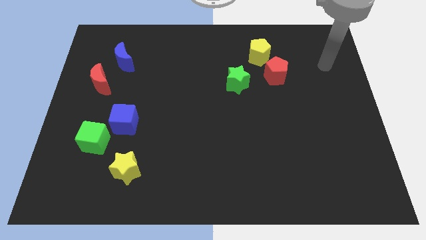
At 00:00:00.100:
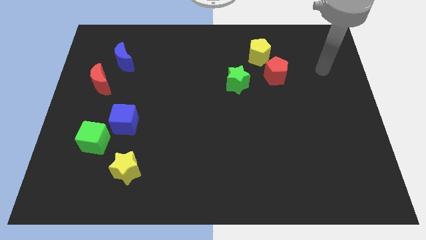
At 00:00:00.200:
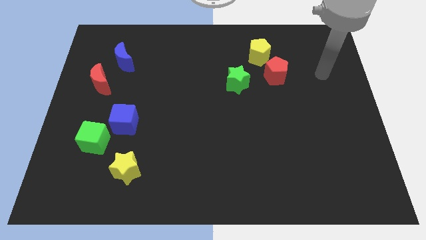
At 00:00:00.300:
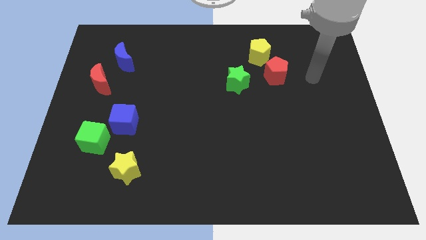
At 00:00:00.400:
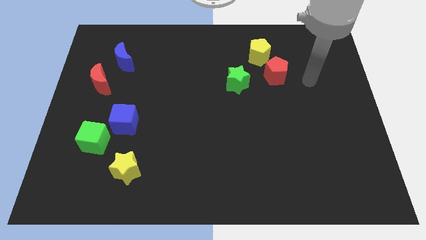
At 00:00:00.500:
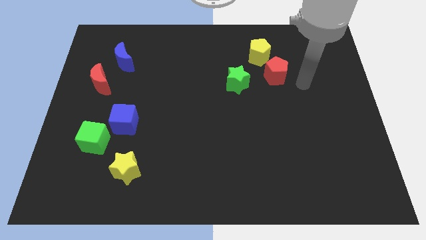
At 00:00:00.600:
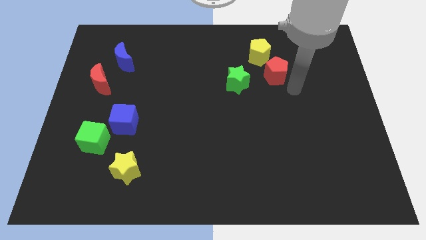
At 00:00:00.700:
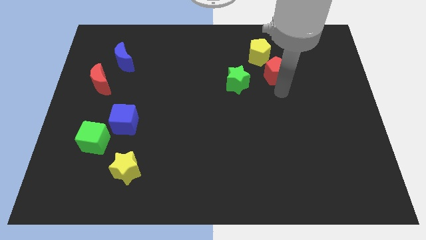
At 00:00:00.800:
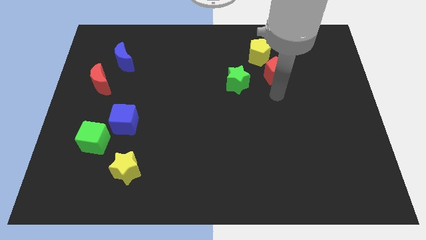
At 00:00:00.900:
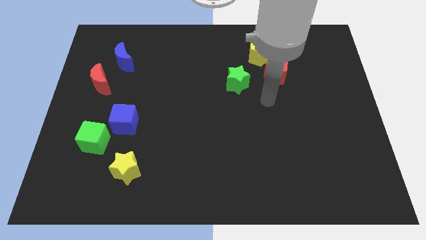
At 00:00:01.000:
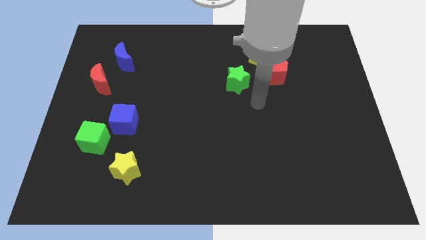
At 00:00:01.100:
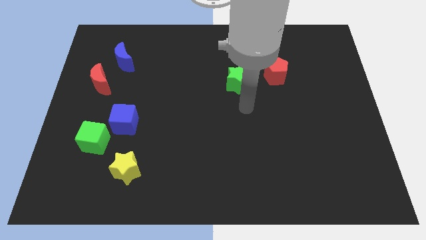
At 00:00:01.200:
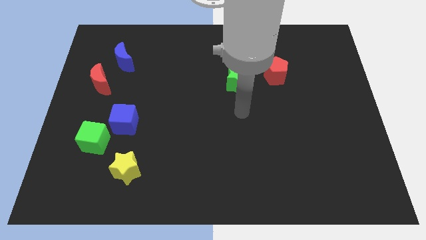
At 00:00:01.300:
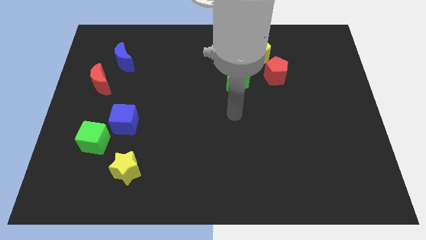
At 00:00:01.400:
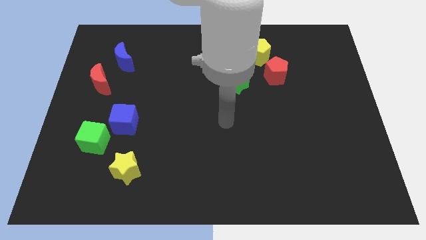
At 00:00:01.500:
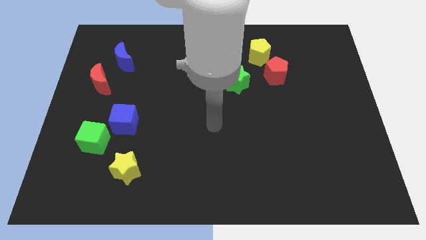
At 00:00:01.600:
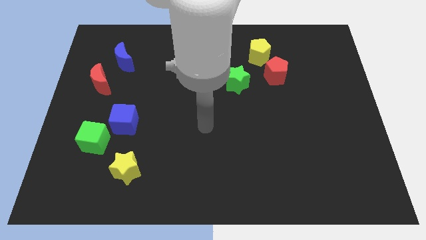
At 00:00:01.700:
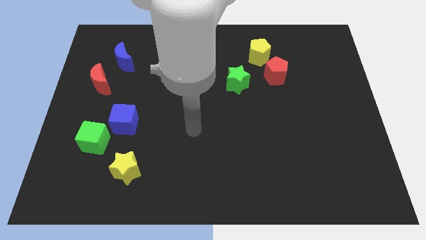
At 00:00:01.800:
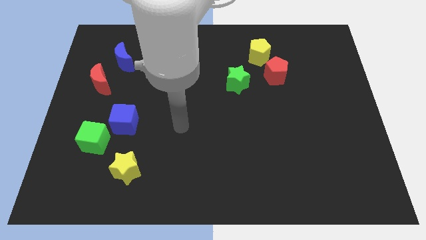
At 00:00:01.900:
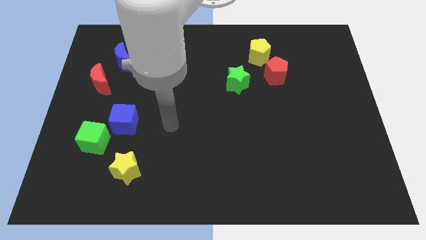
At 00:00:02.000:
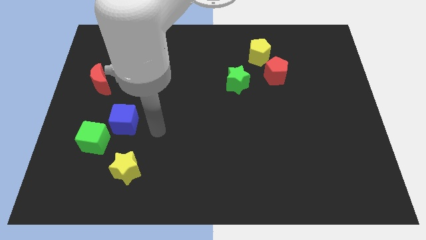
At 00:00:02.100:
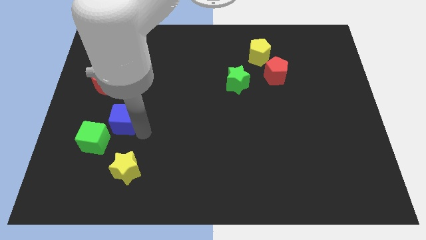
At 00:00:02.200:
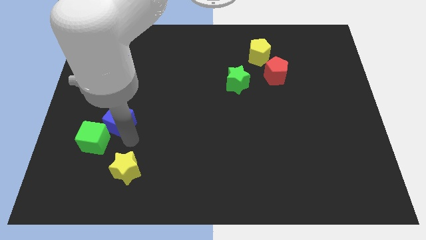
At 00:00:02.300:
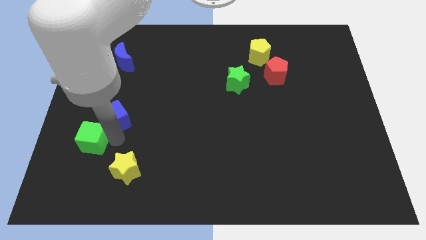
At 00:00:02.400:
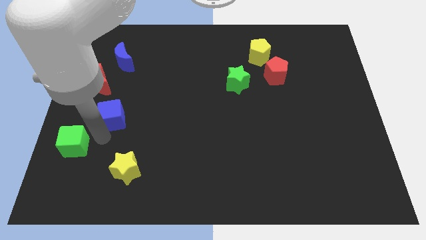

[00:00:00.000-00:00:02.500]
separate the blue cube from the green cube

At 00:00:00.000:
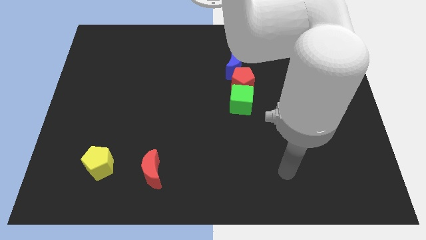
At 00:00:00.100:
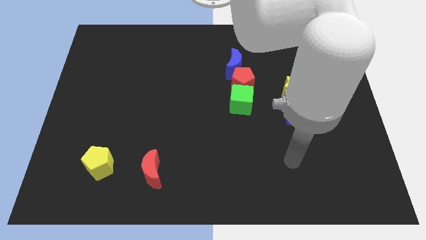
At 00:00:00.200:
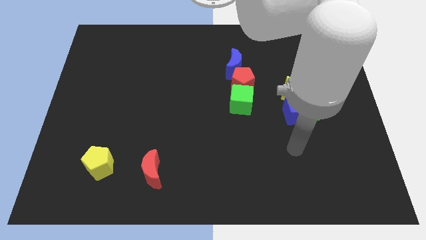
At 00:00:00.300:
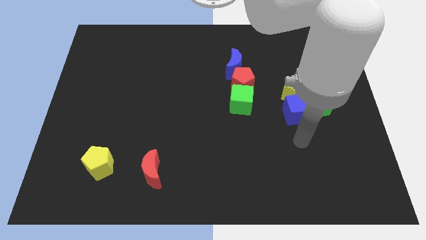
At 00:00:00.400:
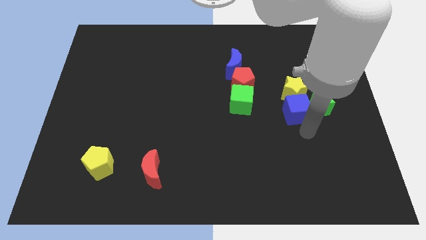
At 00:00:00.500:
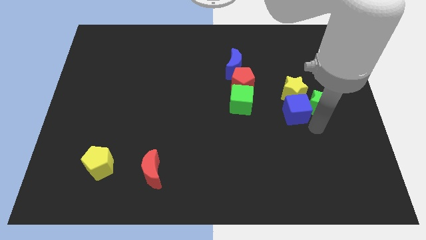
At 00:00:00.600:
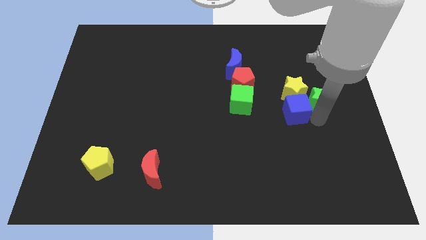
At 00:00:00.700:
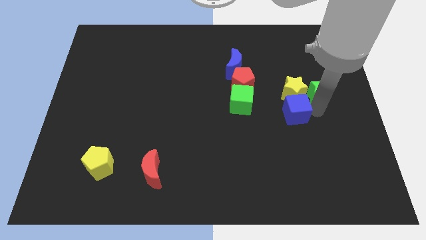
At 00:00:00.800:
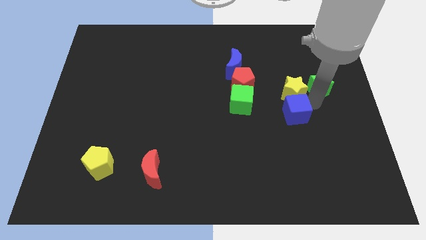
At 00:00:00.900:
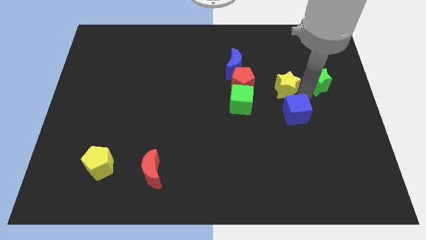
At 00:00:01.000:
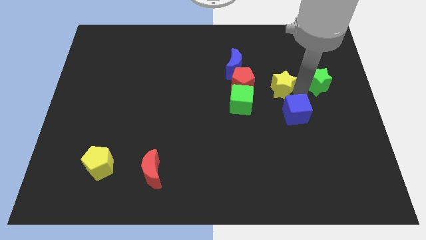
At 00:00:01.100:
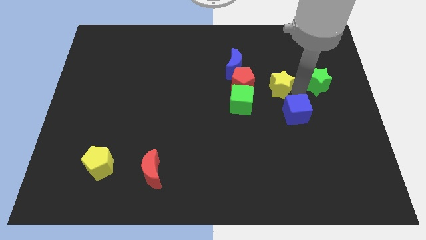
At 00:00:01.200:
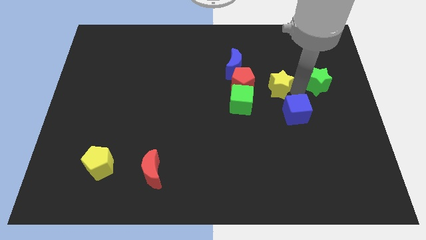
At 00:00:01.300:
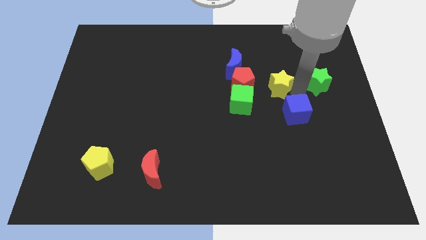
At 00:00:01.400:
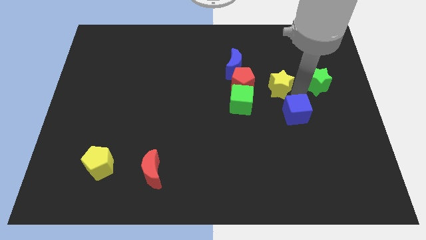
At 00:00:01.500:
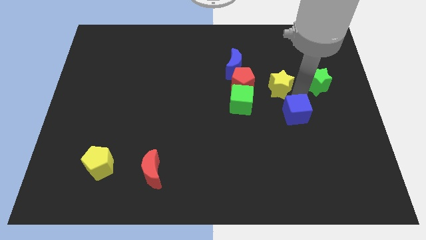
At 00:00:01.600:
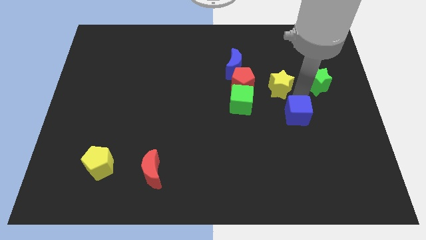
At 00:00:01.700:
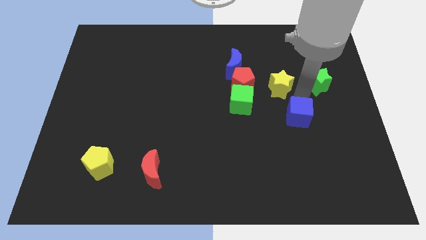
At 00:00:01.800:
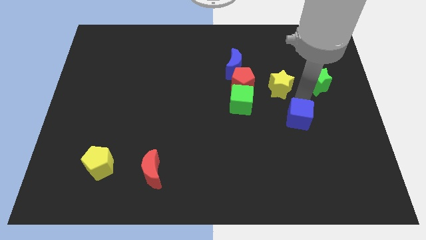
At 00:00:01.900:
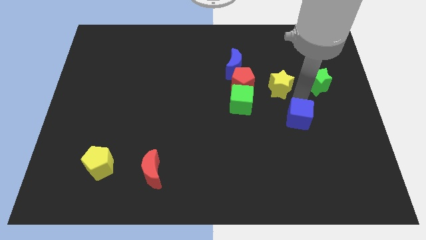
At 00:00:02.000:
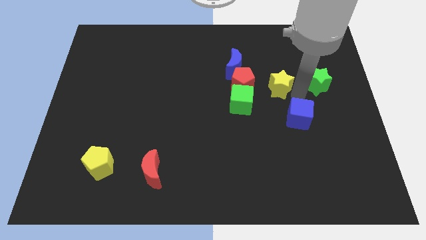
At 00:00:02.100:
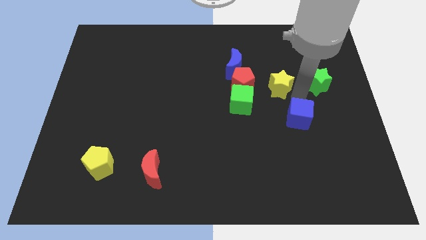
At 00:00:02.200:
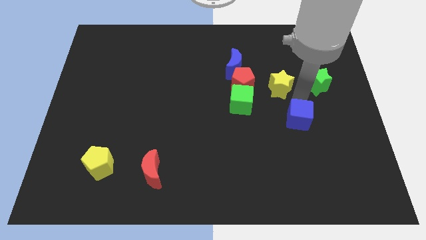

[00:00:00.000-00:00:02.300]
pull the blue cube apart from the green star and yellow star

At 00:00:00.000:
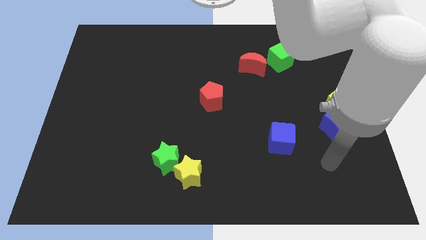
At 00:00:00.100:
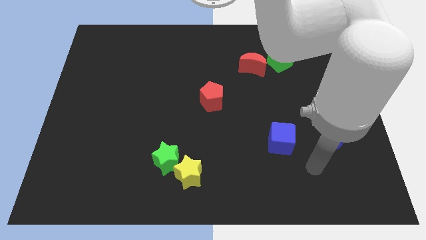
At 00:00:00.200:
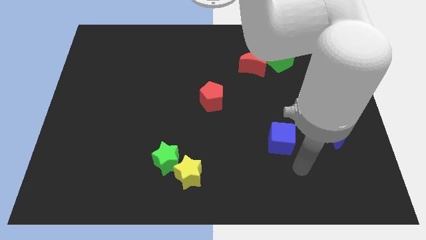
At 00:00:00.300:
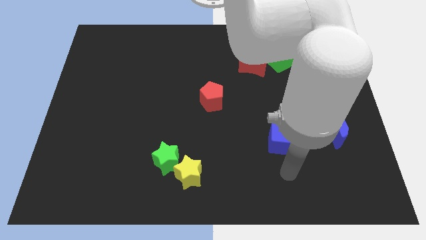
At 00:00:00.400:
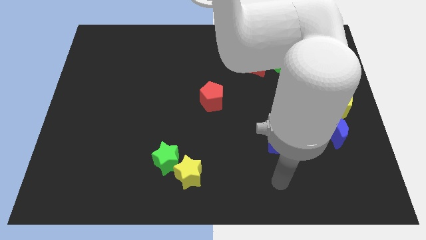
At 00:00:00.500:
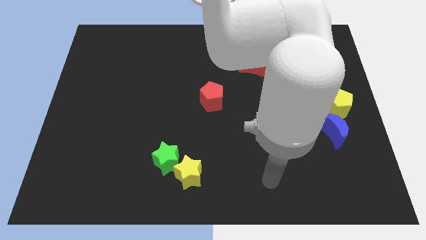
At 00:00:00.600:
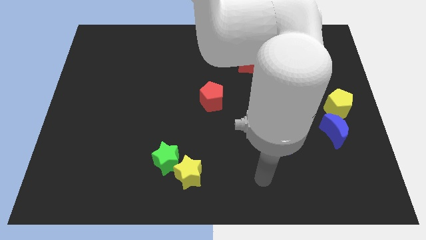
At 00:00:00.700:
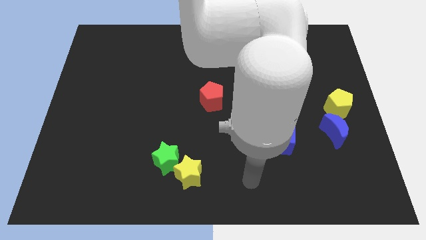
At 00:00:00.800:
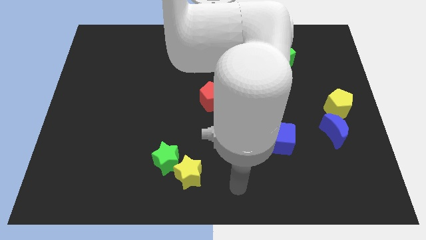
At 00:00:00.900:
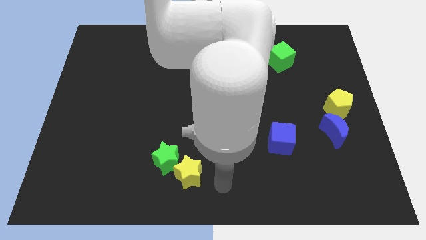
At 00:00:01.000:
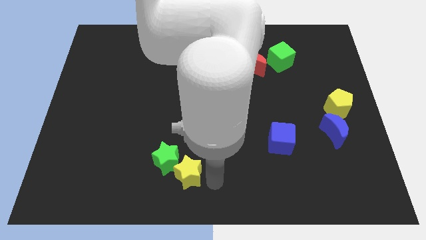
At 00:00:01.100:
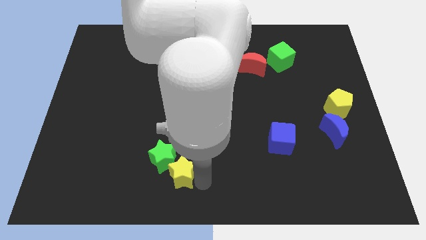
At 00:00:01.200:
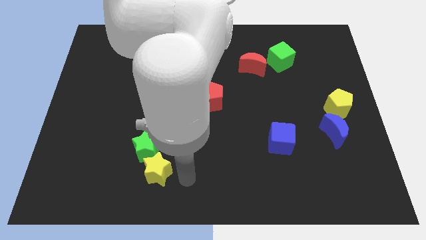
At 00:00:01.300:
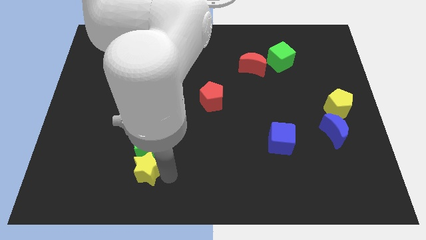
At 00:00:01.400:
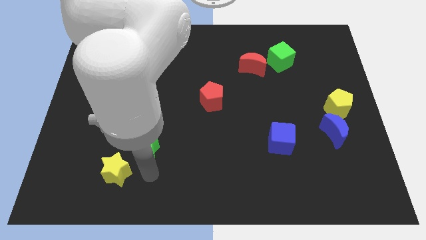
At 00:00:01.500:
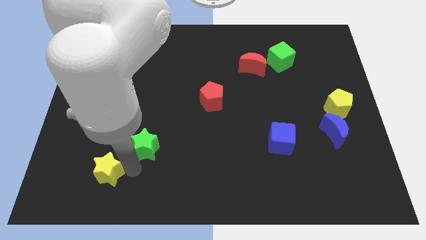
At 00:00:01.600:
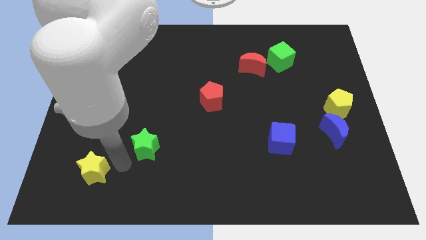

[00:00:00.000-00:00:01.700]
pull the green star apart from the yellow star

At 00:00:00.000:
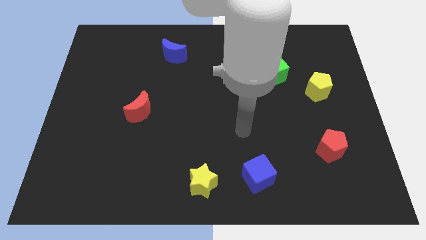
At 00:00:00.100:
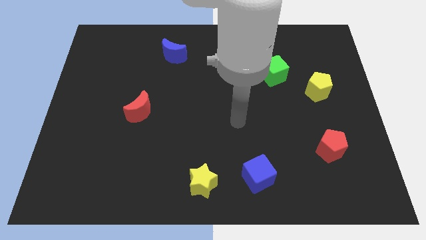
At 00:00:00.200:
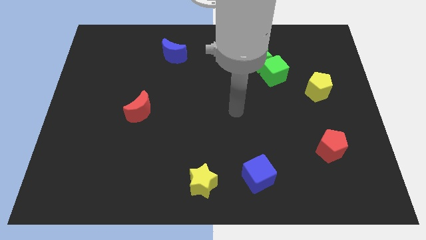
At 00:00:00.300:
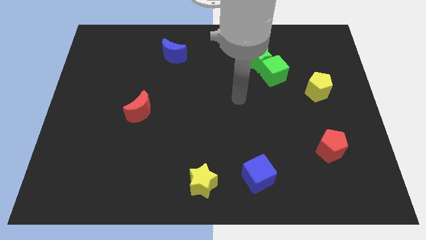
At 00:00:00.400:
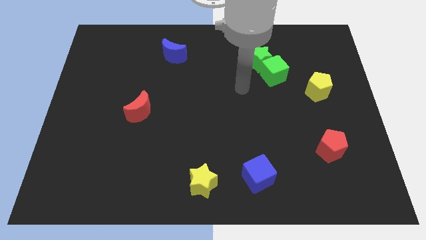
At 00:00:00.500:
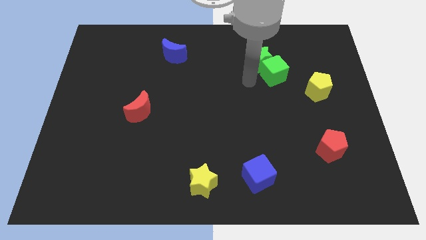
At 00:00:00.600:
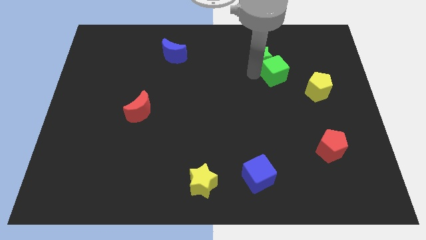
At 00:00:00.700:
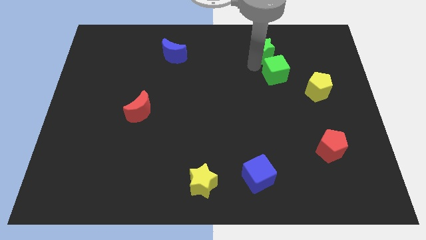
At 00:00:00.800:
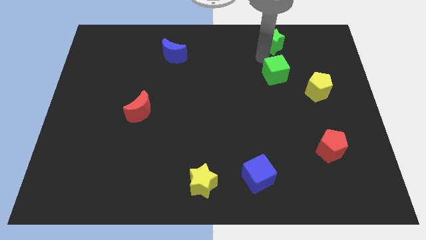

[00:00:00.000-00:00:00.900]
separate the green cube from the green star

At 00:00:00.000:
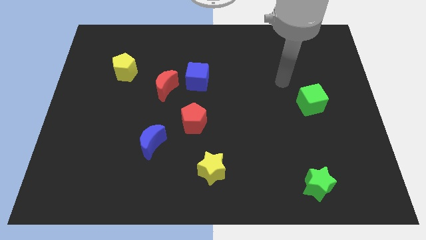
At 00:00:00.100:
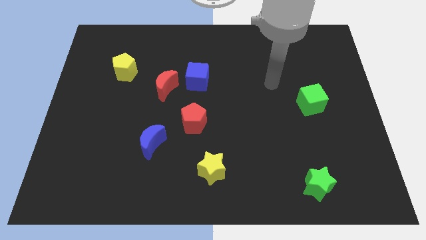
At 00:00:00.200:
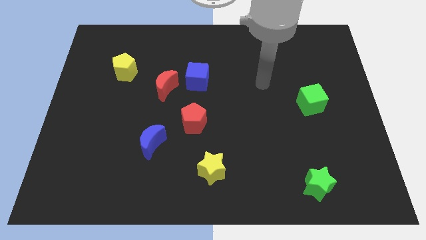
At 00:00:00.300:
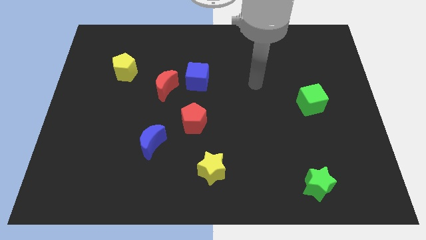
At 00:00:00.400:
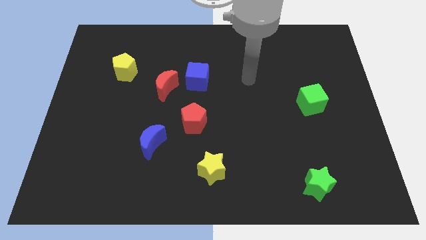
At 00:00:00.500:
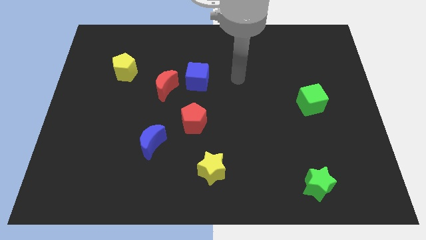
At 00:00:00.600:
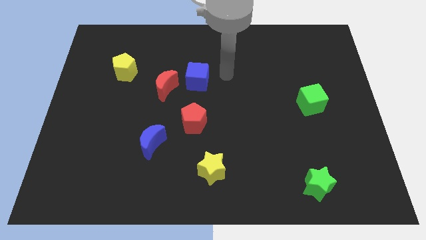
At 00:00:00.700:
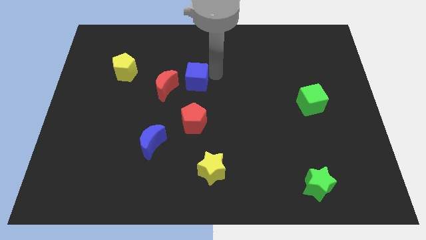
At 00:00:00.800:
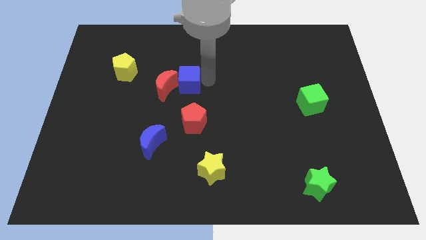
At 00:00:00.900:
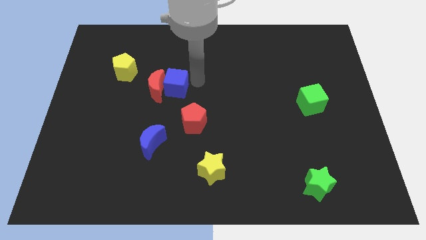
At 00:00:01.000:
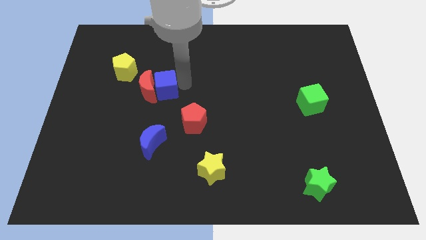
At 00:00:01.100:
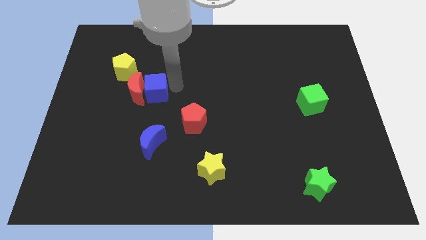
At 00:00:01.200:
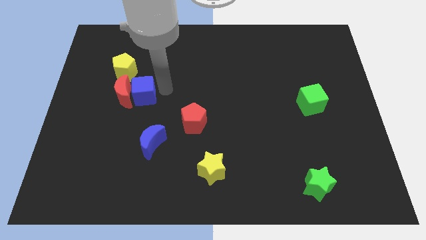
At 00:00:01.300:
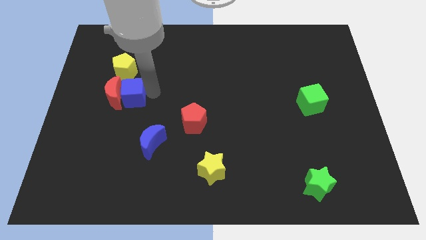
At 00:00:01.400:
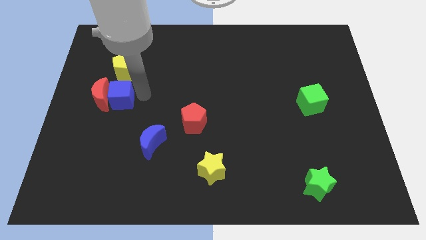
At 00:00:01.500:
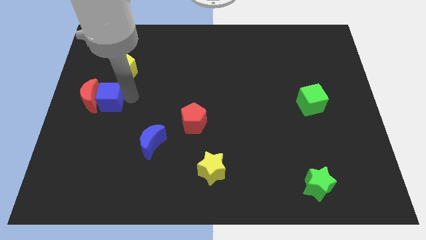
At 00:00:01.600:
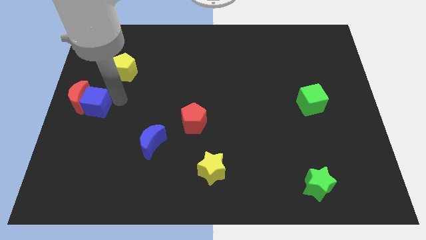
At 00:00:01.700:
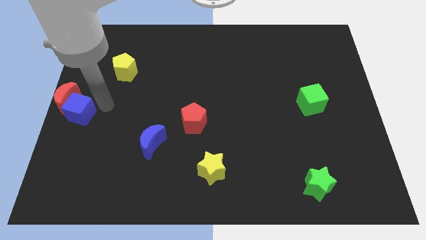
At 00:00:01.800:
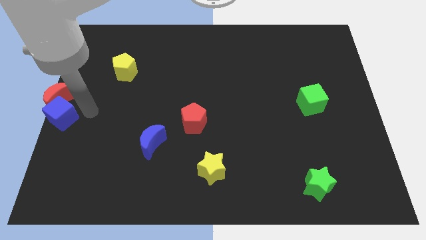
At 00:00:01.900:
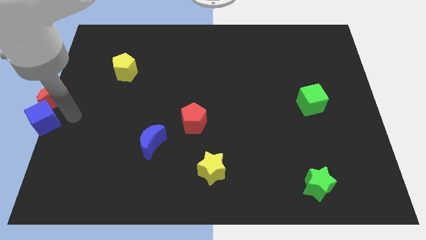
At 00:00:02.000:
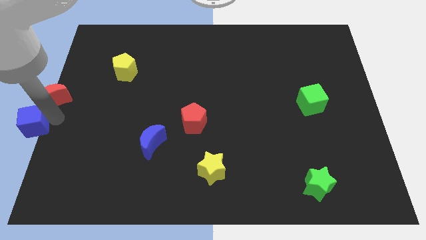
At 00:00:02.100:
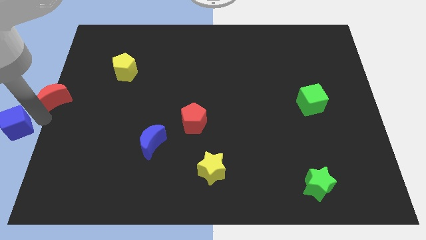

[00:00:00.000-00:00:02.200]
separate the red moon from the blue cube
